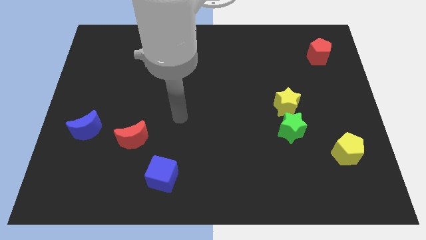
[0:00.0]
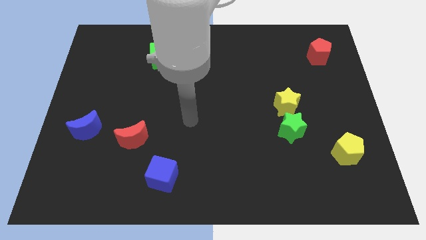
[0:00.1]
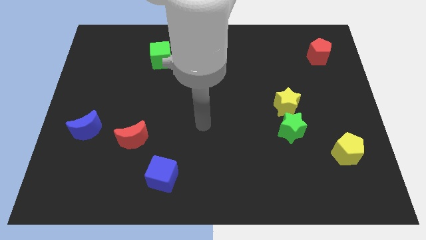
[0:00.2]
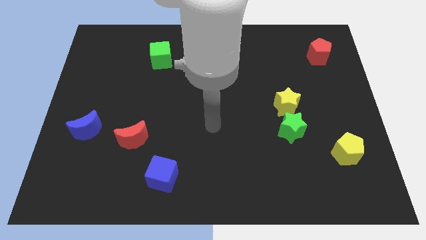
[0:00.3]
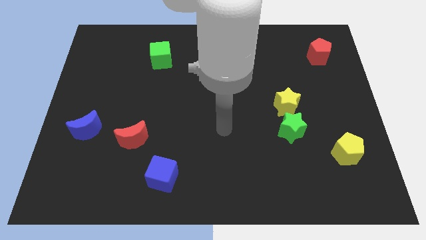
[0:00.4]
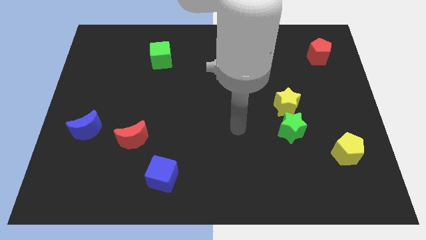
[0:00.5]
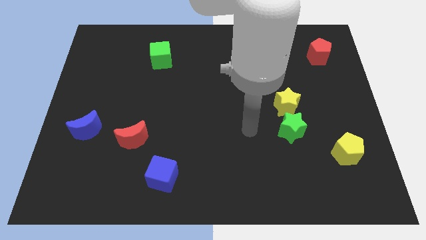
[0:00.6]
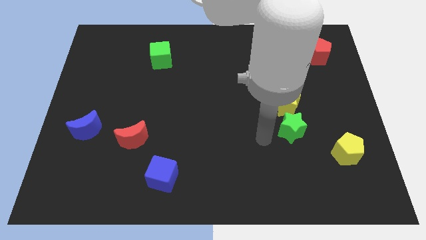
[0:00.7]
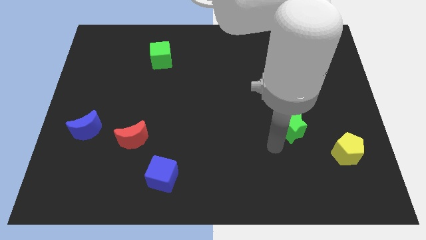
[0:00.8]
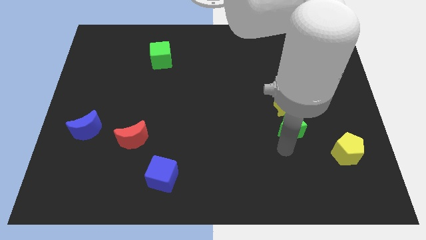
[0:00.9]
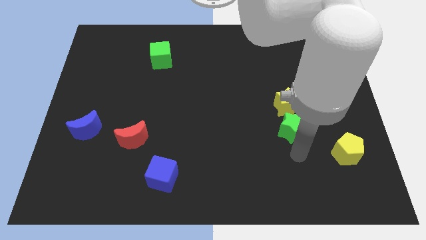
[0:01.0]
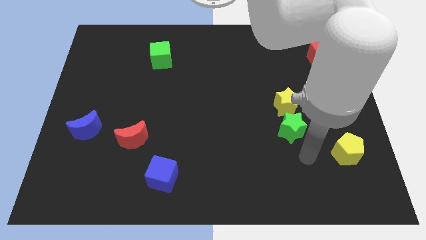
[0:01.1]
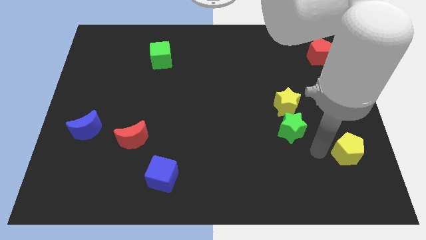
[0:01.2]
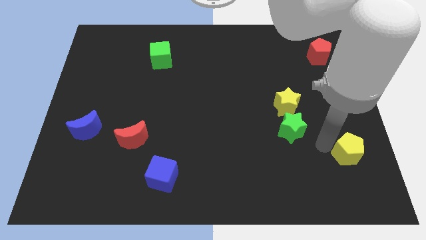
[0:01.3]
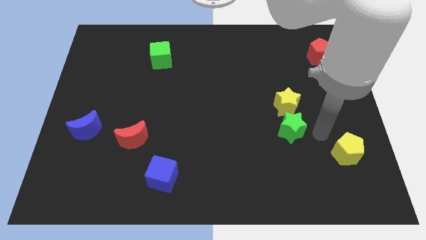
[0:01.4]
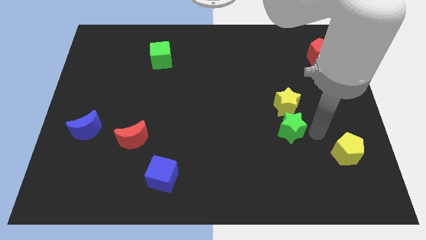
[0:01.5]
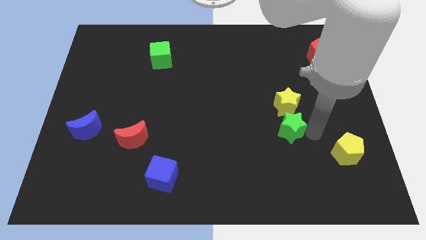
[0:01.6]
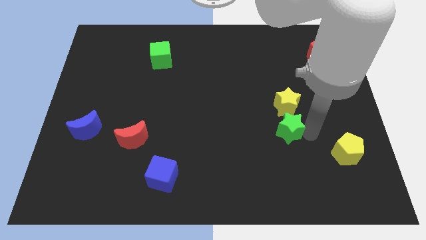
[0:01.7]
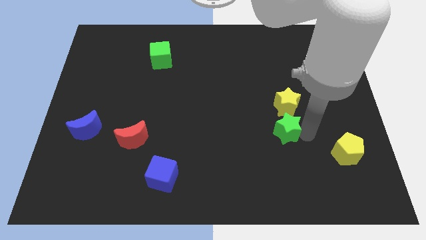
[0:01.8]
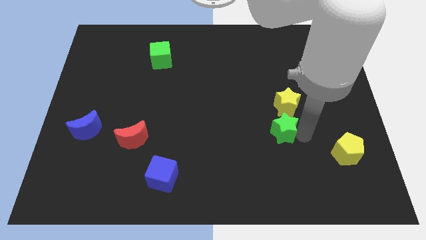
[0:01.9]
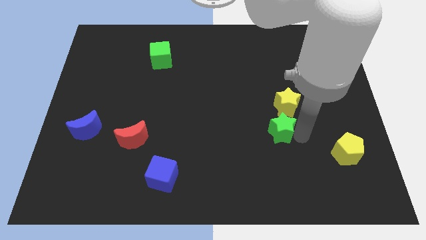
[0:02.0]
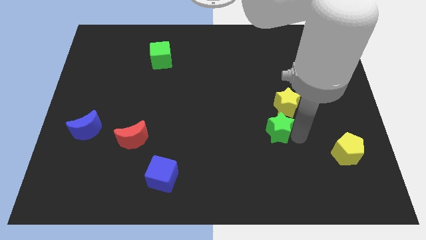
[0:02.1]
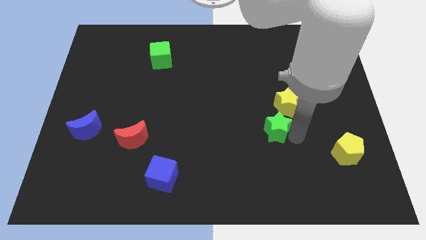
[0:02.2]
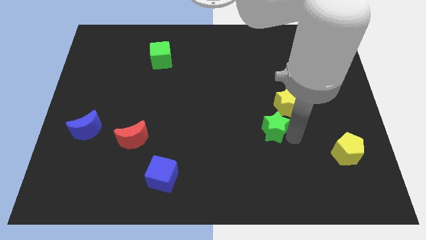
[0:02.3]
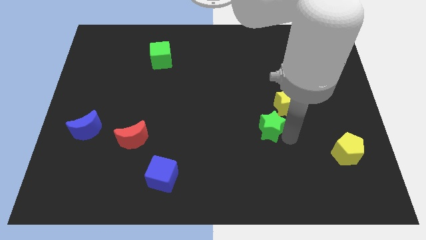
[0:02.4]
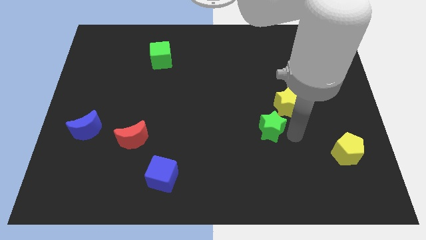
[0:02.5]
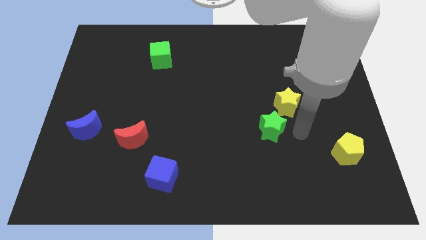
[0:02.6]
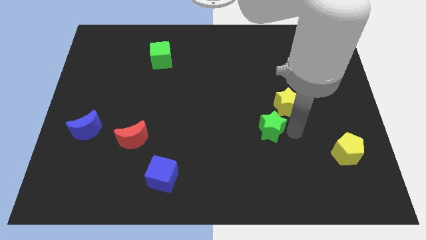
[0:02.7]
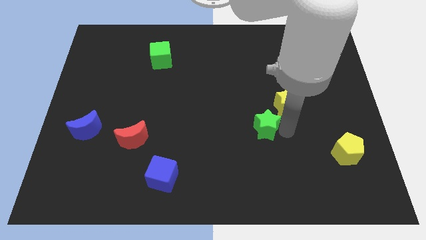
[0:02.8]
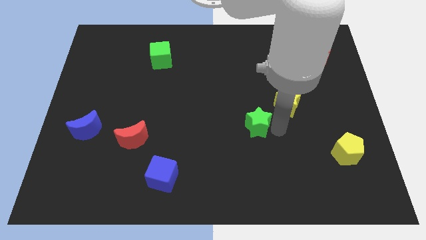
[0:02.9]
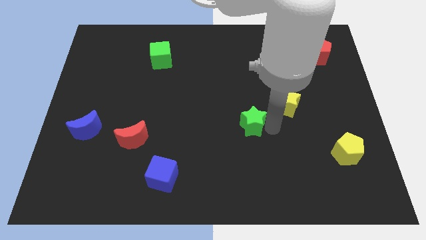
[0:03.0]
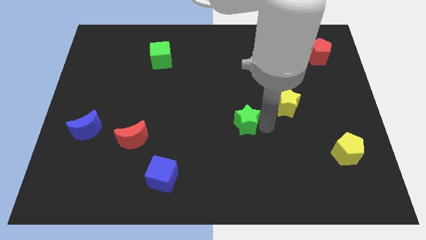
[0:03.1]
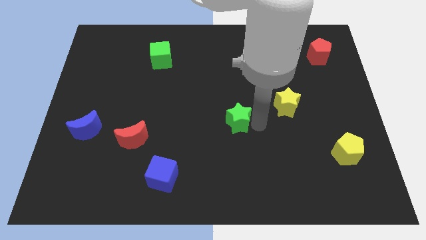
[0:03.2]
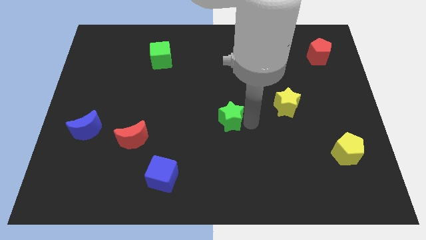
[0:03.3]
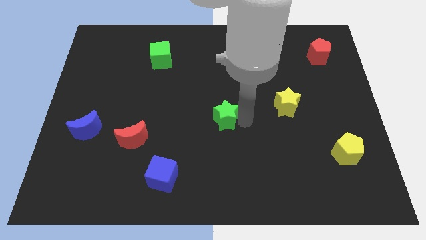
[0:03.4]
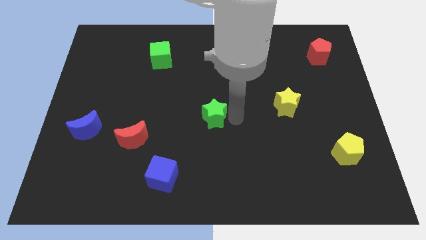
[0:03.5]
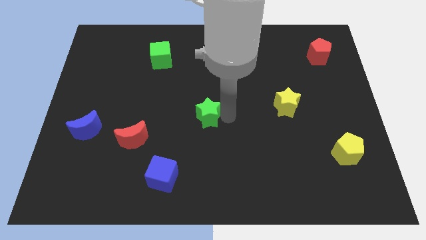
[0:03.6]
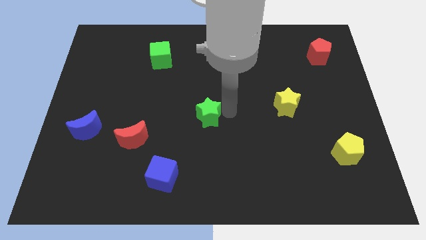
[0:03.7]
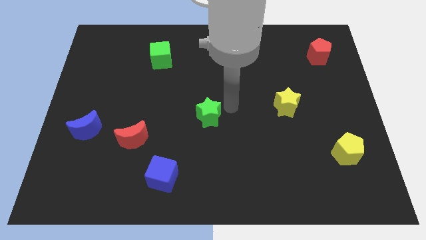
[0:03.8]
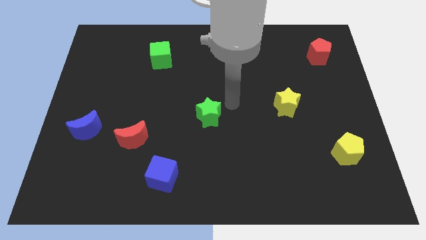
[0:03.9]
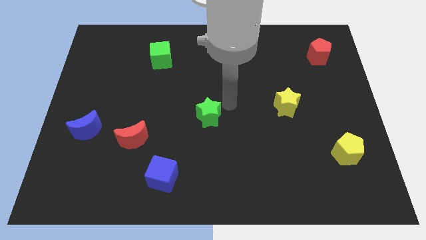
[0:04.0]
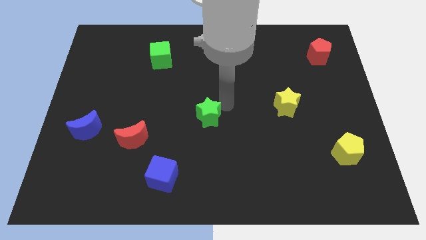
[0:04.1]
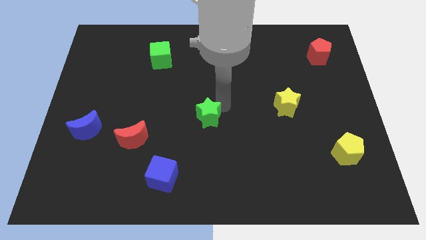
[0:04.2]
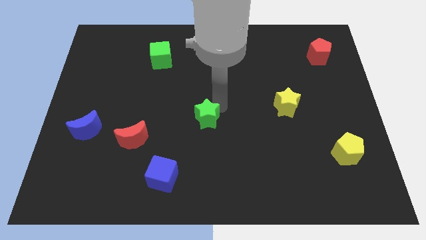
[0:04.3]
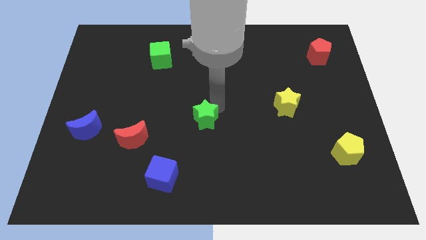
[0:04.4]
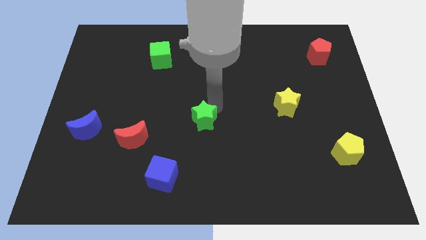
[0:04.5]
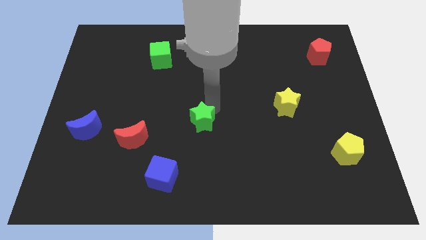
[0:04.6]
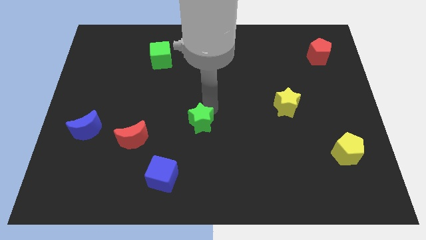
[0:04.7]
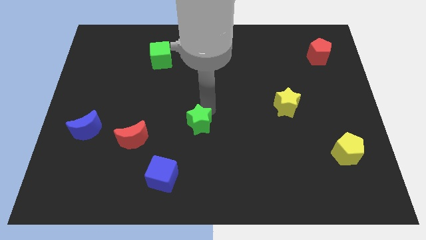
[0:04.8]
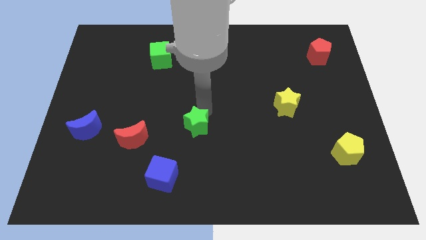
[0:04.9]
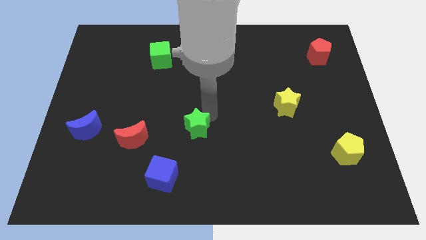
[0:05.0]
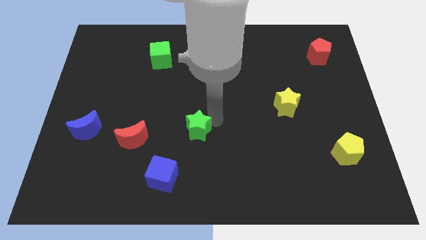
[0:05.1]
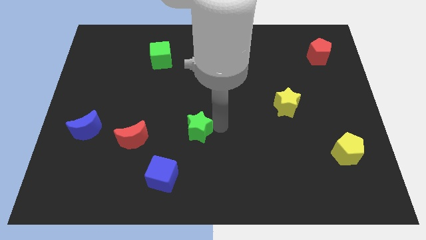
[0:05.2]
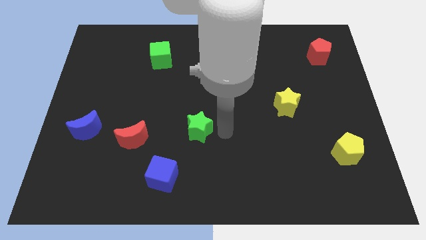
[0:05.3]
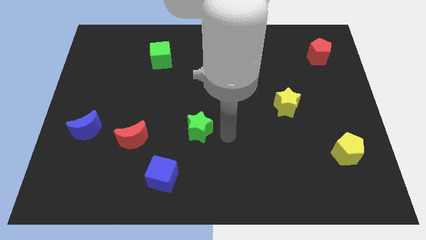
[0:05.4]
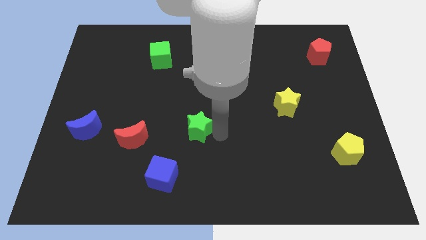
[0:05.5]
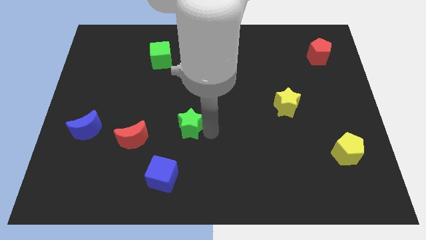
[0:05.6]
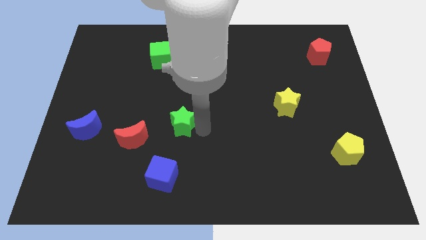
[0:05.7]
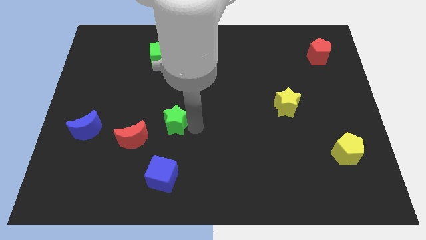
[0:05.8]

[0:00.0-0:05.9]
put the green star diagonally up and to the right of the red moon

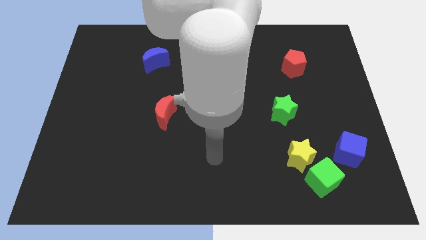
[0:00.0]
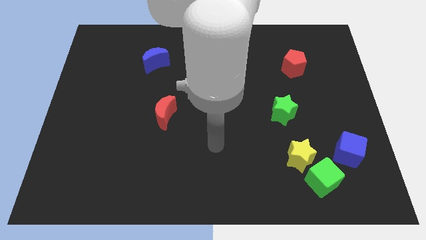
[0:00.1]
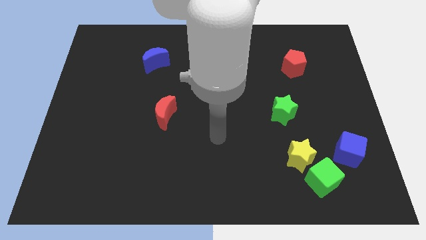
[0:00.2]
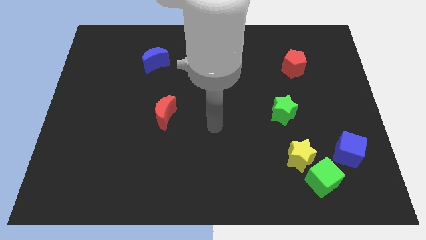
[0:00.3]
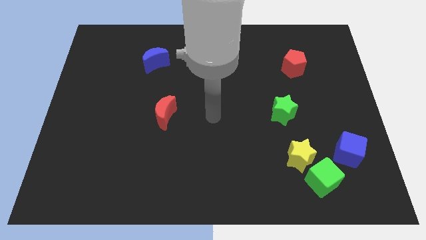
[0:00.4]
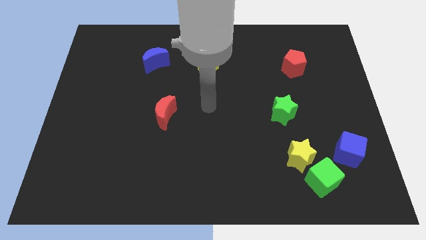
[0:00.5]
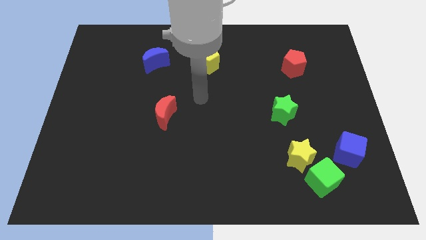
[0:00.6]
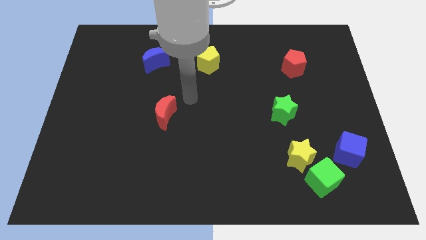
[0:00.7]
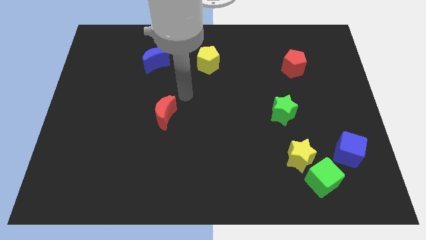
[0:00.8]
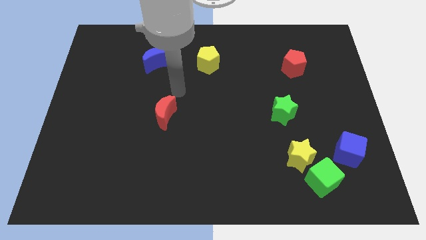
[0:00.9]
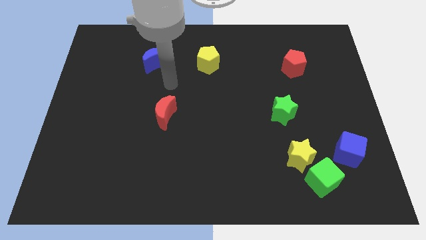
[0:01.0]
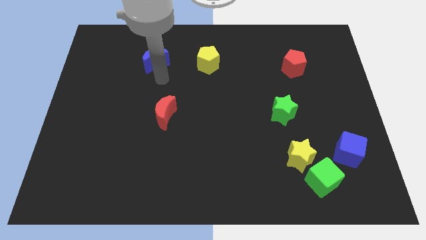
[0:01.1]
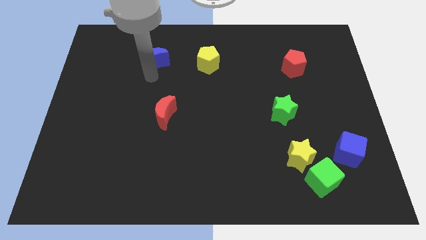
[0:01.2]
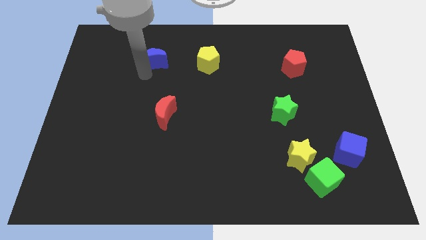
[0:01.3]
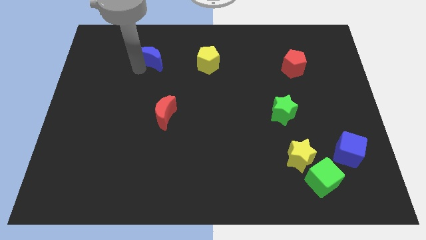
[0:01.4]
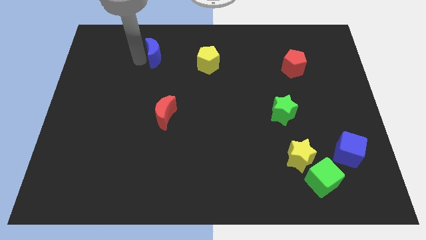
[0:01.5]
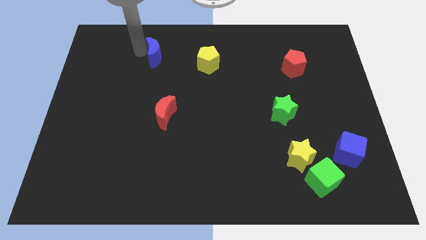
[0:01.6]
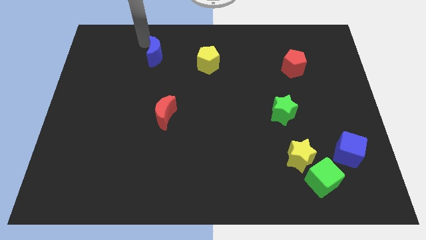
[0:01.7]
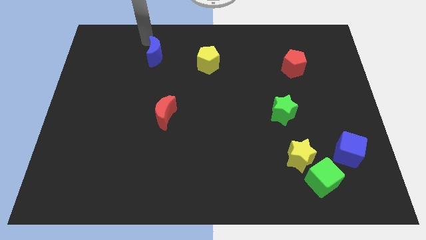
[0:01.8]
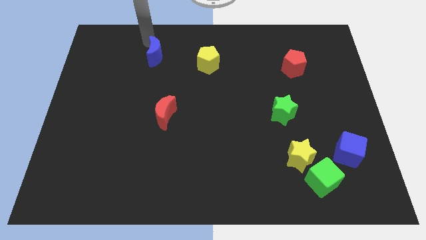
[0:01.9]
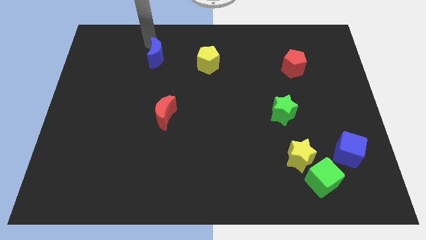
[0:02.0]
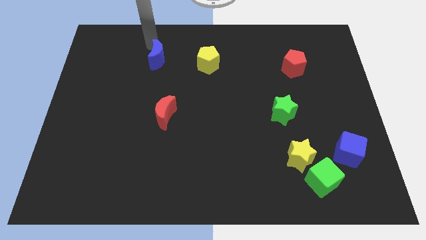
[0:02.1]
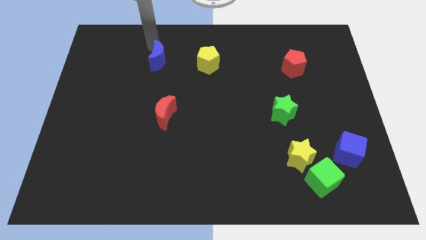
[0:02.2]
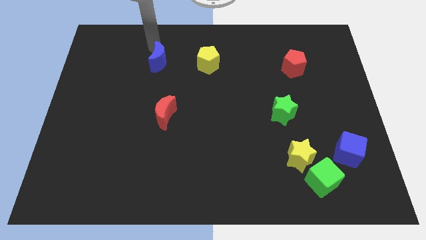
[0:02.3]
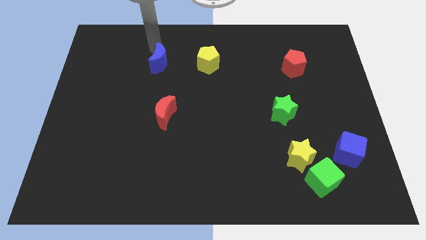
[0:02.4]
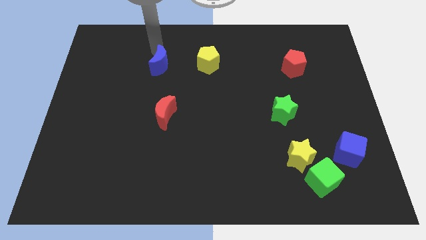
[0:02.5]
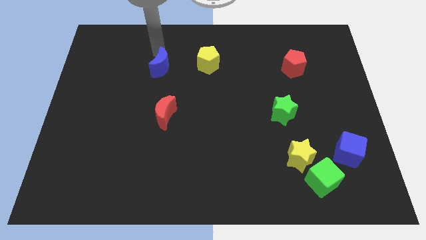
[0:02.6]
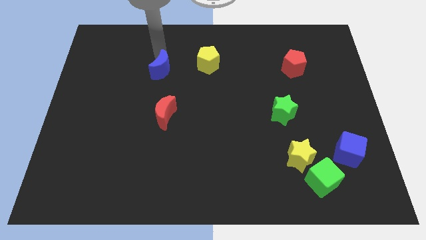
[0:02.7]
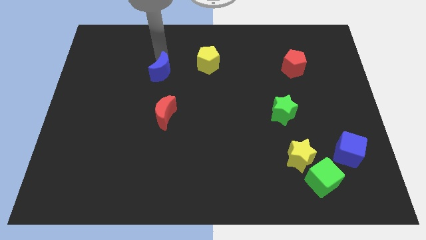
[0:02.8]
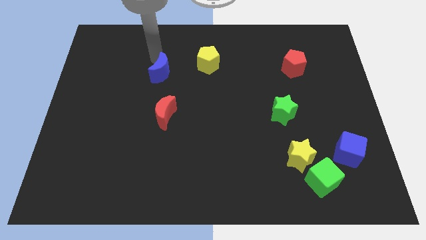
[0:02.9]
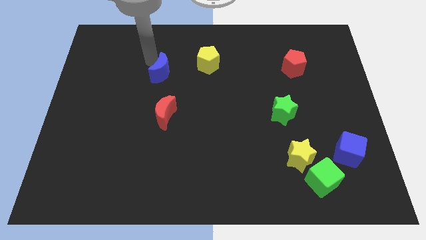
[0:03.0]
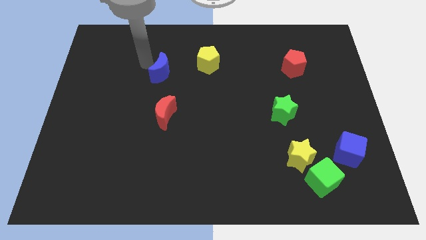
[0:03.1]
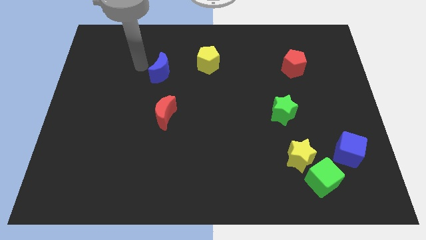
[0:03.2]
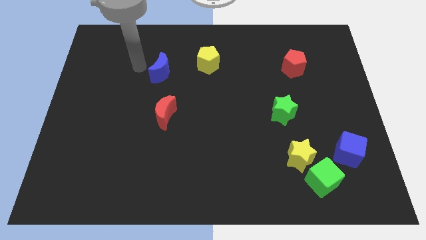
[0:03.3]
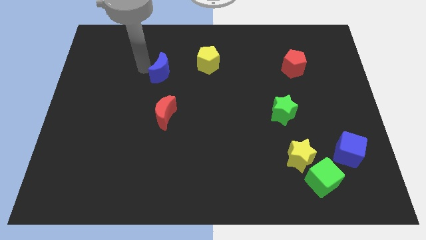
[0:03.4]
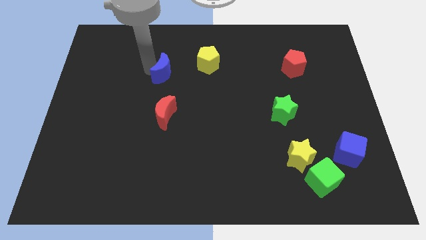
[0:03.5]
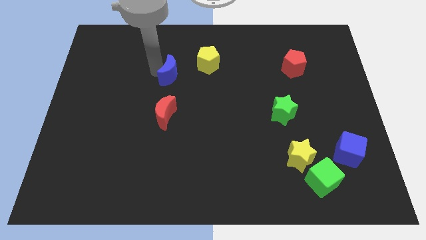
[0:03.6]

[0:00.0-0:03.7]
slide the blue moon to the bottom left of the yellow pentagon
